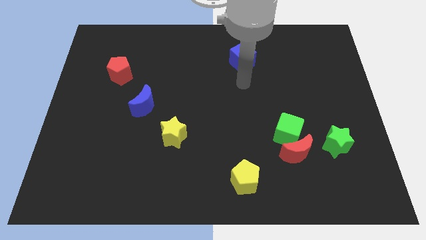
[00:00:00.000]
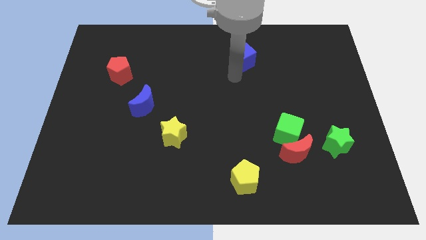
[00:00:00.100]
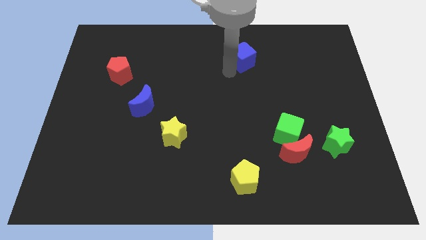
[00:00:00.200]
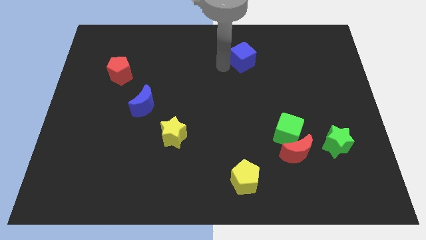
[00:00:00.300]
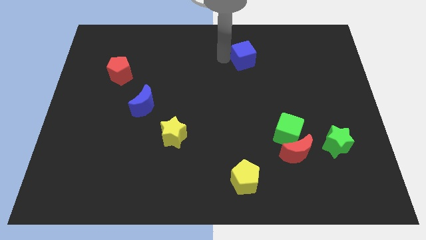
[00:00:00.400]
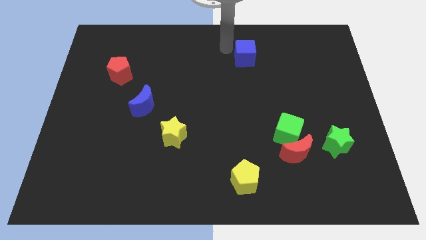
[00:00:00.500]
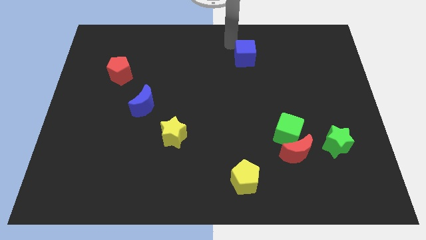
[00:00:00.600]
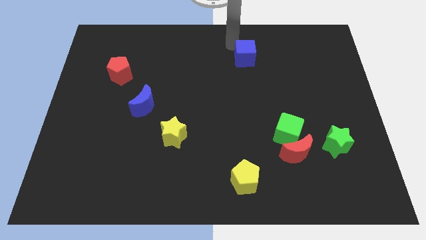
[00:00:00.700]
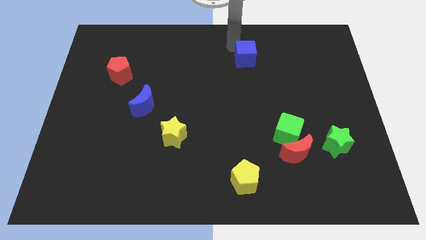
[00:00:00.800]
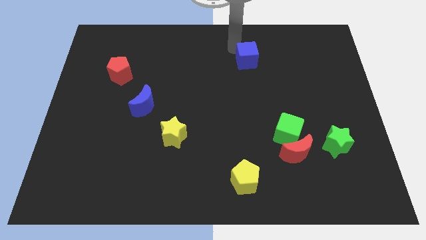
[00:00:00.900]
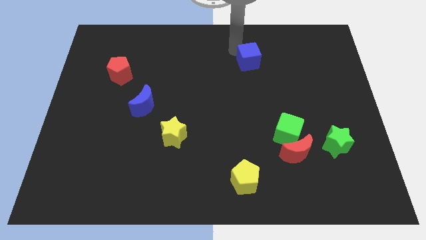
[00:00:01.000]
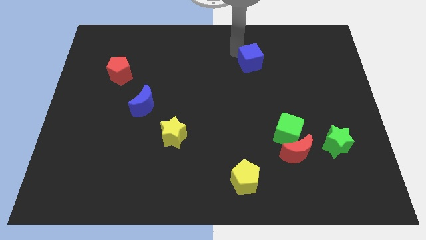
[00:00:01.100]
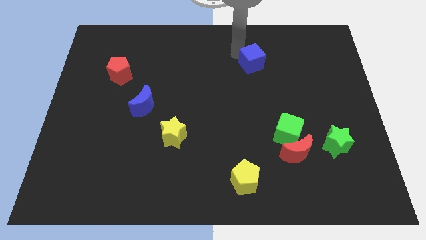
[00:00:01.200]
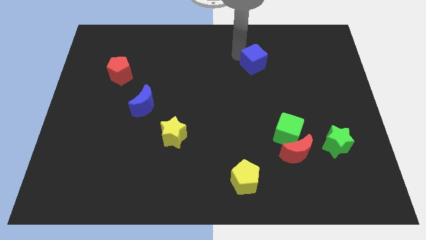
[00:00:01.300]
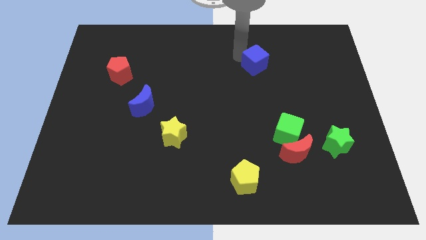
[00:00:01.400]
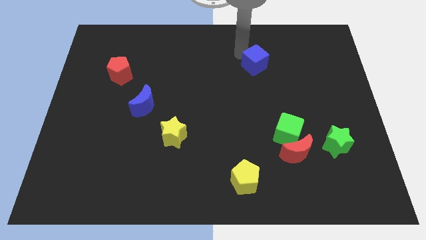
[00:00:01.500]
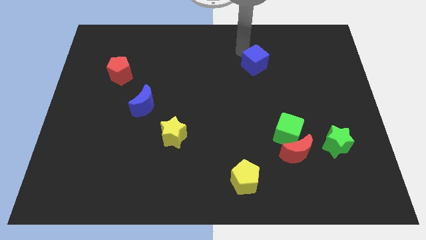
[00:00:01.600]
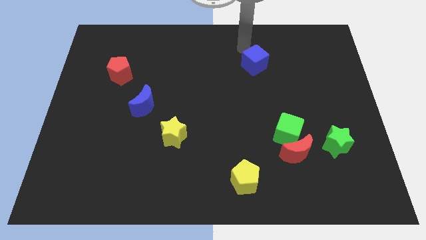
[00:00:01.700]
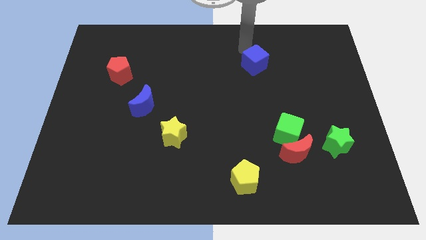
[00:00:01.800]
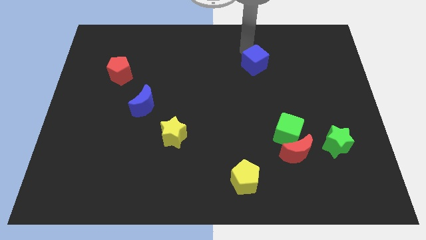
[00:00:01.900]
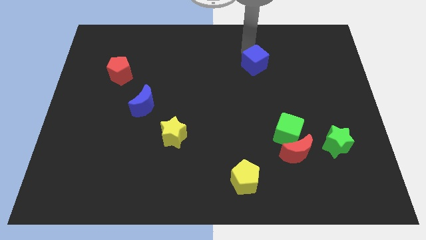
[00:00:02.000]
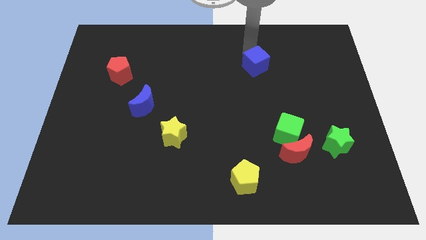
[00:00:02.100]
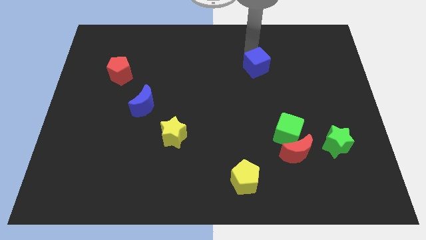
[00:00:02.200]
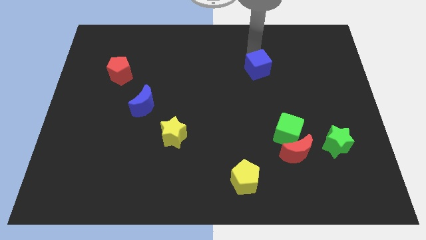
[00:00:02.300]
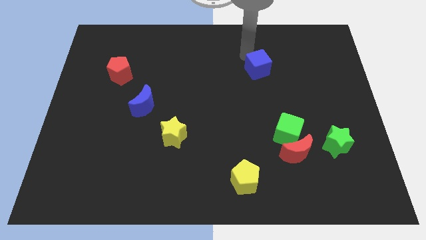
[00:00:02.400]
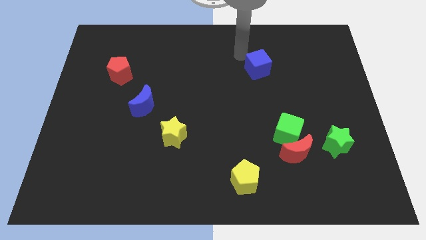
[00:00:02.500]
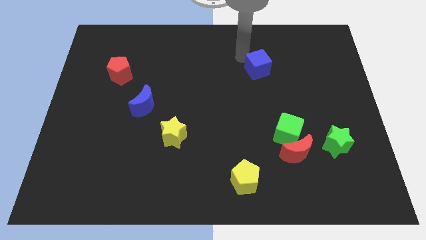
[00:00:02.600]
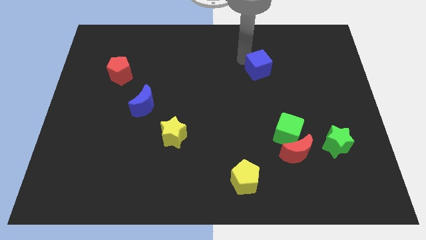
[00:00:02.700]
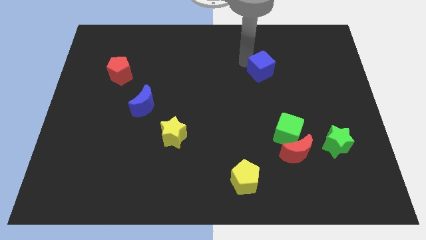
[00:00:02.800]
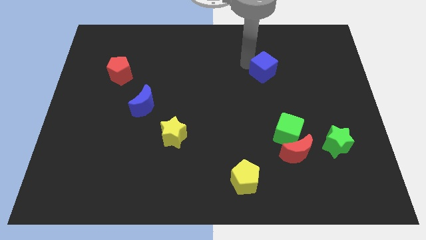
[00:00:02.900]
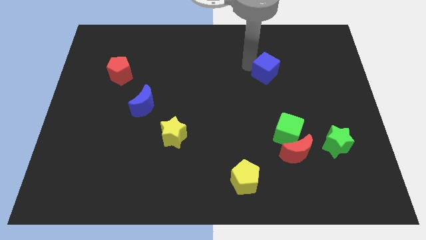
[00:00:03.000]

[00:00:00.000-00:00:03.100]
push the blue cube down and to the right diagonally somewhat

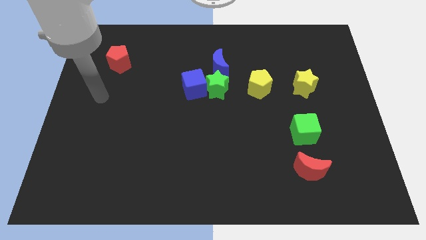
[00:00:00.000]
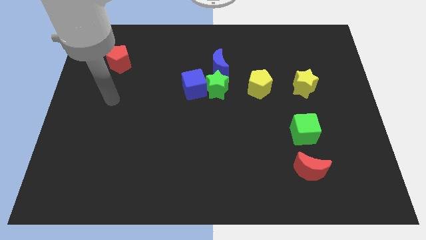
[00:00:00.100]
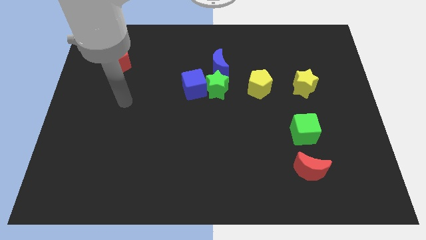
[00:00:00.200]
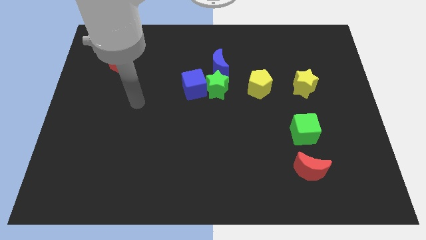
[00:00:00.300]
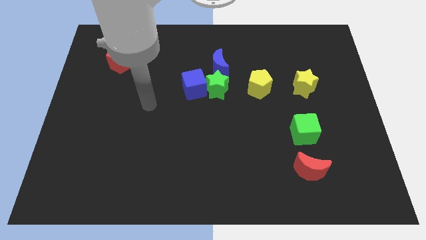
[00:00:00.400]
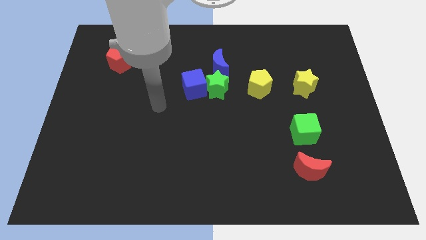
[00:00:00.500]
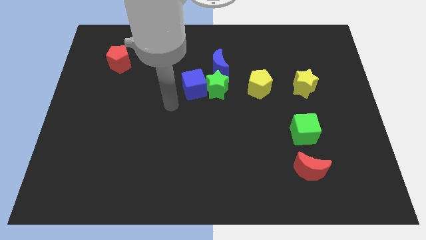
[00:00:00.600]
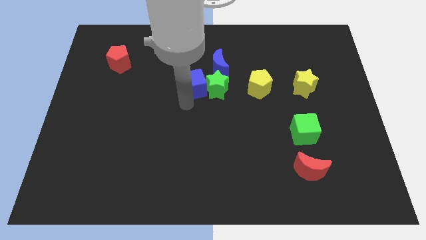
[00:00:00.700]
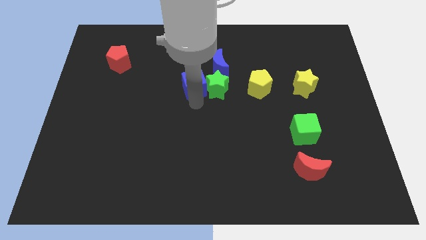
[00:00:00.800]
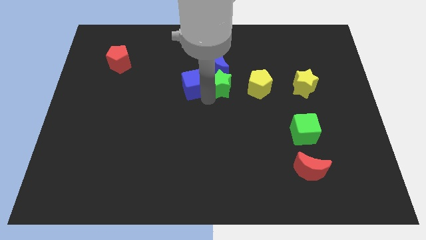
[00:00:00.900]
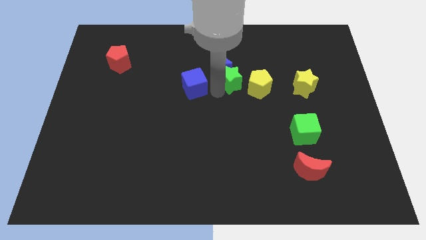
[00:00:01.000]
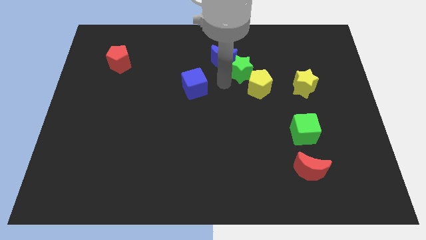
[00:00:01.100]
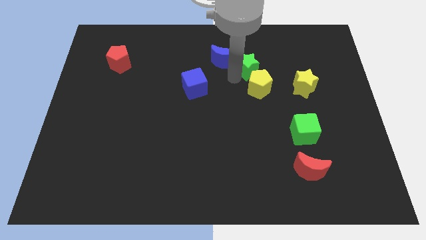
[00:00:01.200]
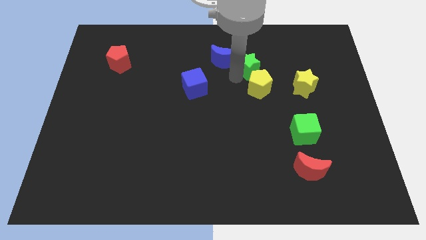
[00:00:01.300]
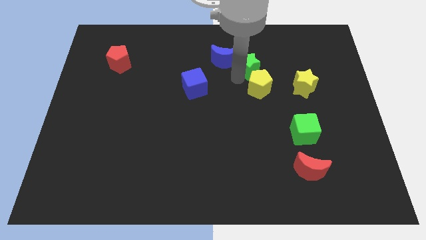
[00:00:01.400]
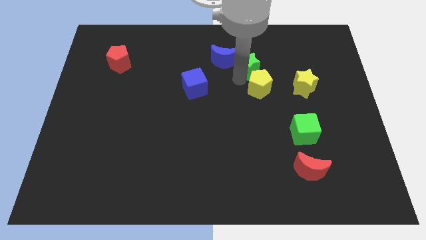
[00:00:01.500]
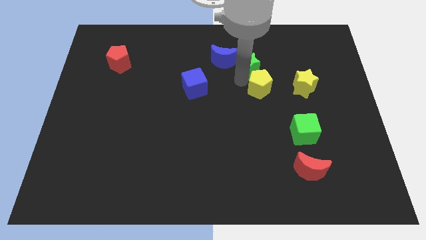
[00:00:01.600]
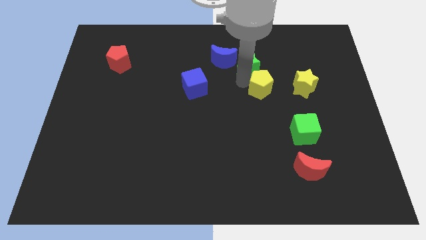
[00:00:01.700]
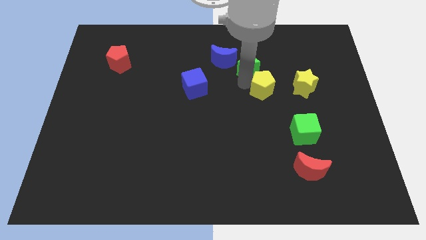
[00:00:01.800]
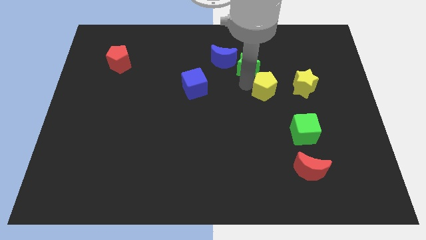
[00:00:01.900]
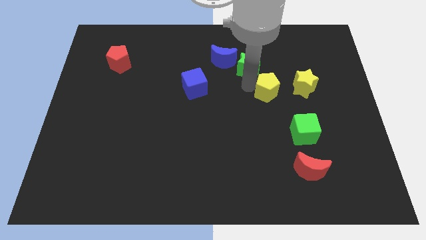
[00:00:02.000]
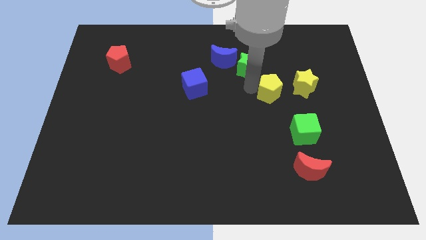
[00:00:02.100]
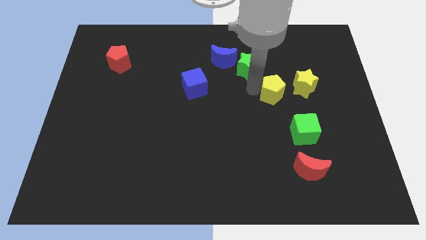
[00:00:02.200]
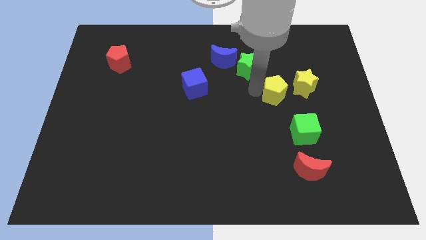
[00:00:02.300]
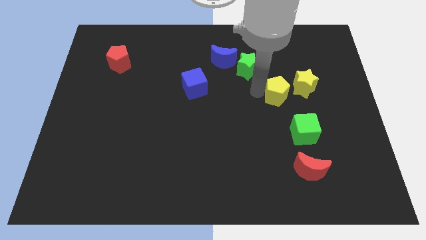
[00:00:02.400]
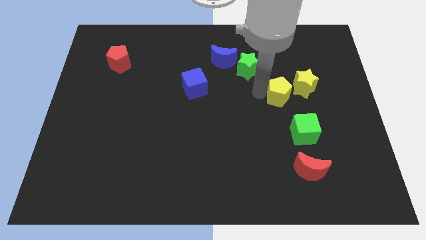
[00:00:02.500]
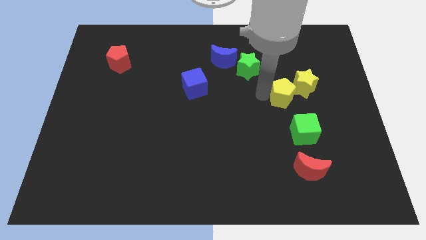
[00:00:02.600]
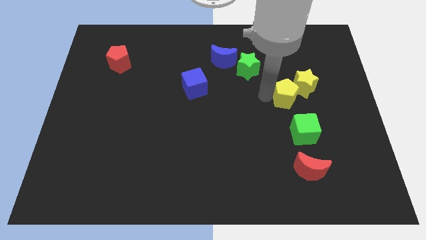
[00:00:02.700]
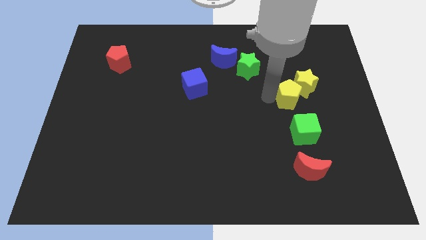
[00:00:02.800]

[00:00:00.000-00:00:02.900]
slightly move the yellow pentagon down and to the right

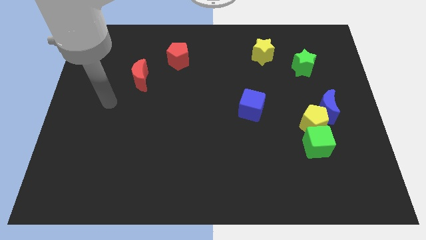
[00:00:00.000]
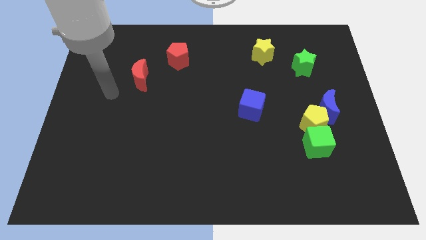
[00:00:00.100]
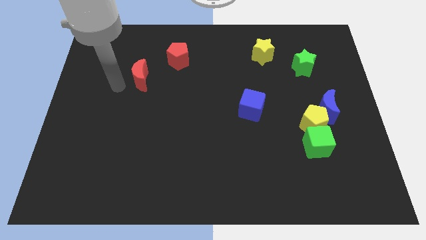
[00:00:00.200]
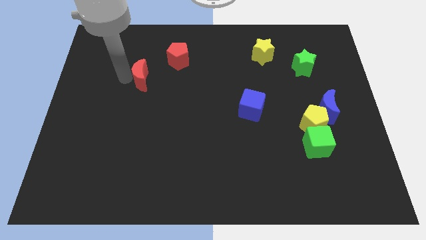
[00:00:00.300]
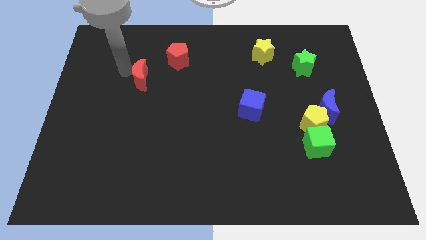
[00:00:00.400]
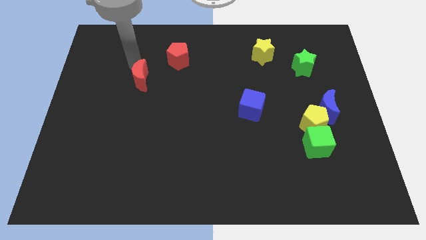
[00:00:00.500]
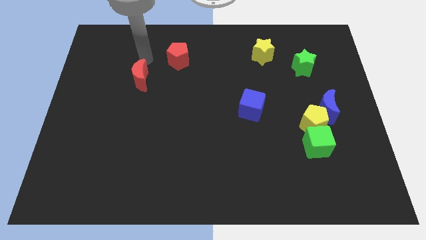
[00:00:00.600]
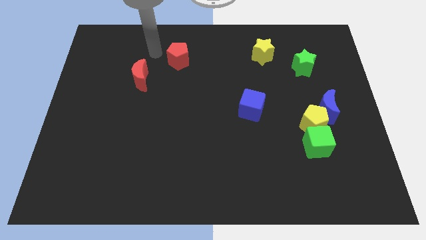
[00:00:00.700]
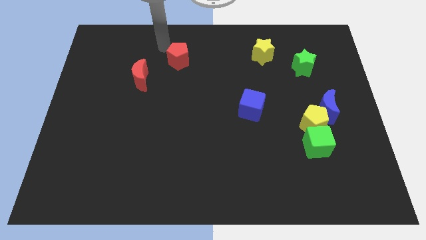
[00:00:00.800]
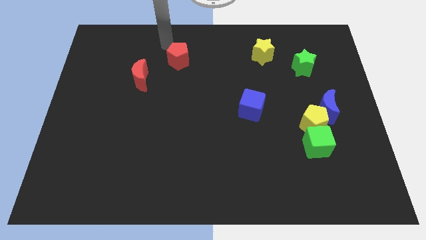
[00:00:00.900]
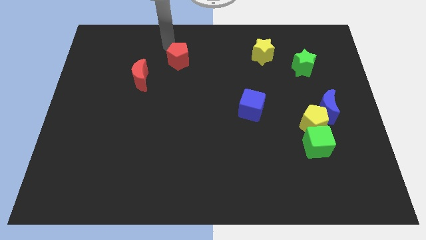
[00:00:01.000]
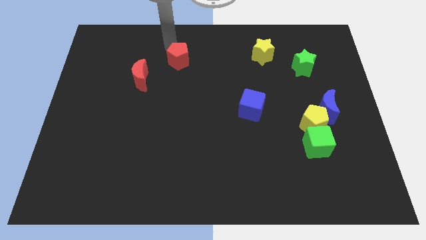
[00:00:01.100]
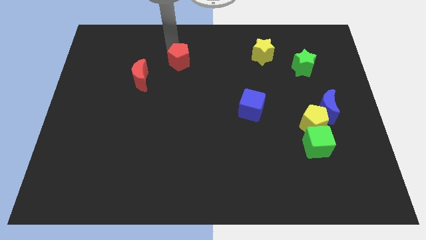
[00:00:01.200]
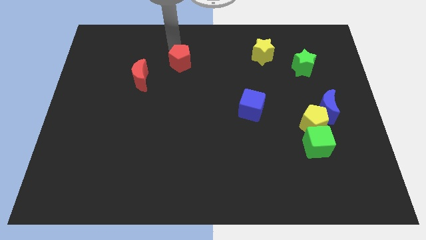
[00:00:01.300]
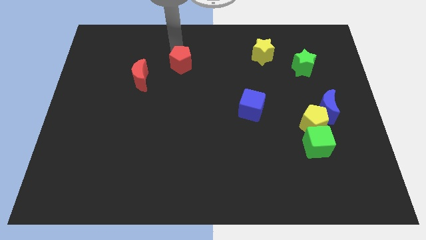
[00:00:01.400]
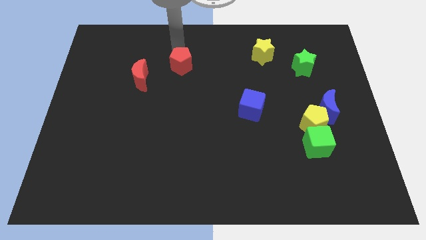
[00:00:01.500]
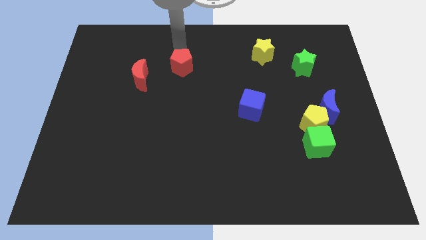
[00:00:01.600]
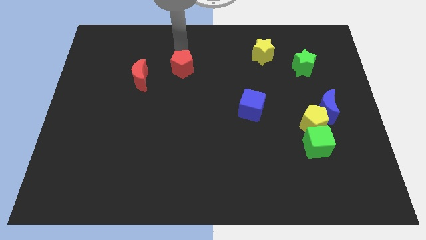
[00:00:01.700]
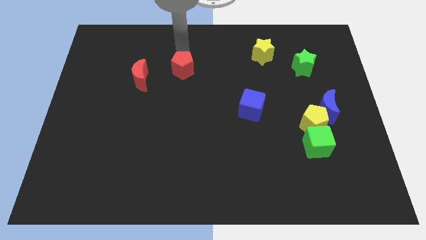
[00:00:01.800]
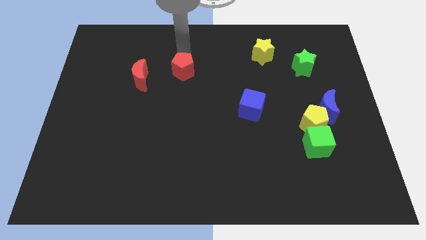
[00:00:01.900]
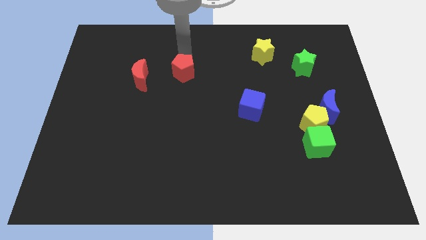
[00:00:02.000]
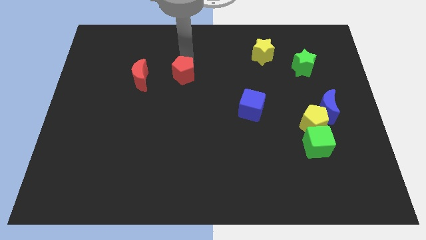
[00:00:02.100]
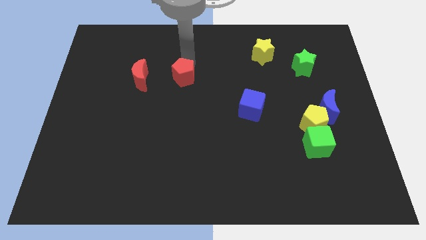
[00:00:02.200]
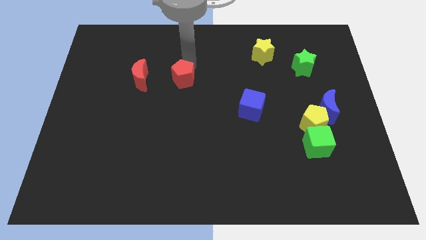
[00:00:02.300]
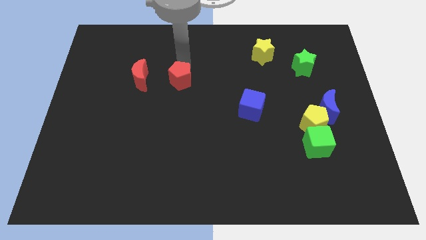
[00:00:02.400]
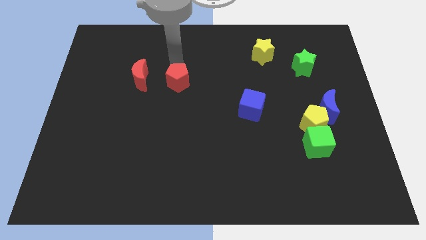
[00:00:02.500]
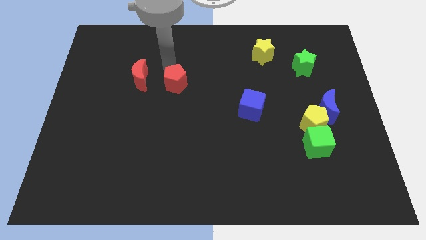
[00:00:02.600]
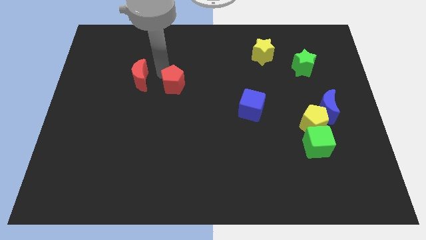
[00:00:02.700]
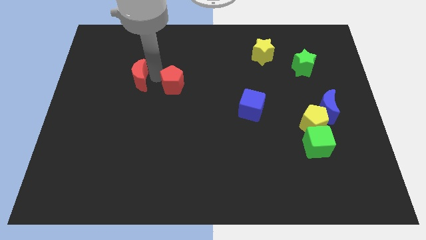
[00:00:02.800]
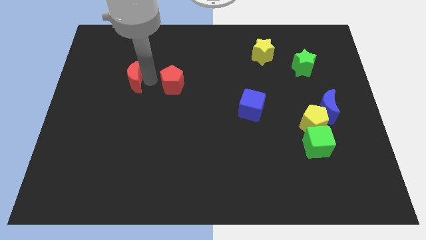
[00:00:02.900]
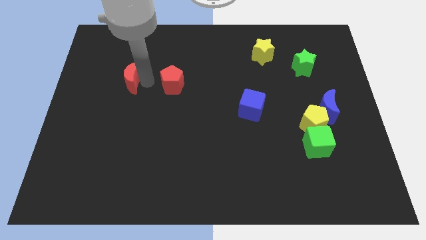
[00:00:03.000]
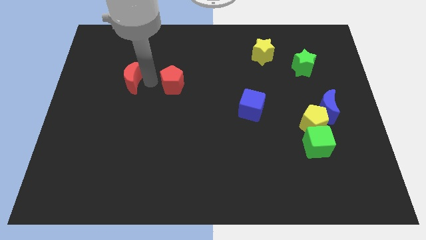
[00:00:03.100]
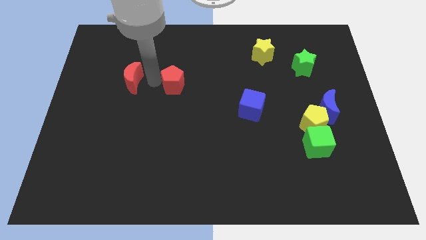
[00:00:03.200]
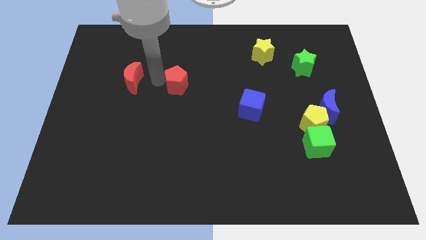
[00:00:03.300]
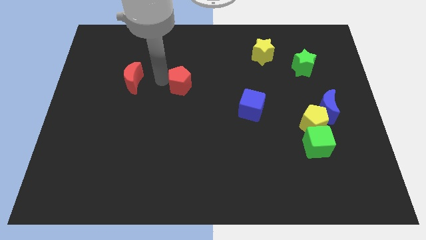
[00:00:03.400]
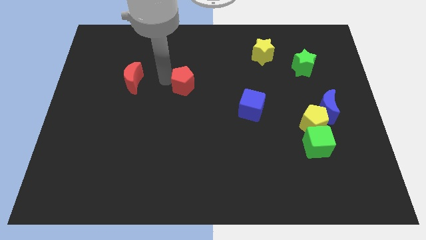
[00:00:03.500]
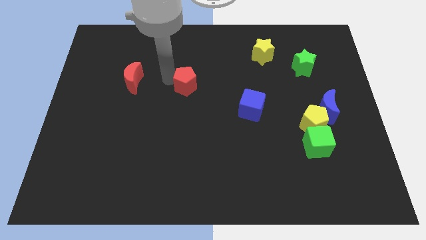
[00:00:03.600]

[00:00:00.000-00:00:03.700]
move the red pentagon diagonally down and right slightly
